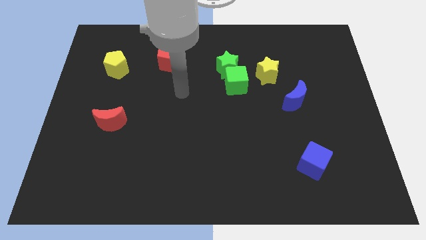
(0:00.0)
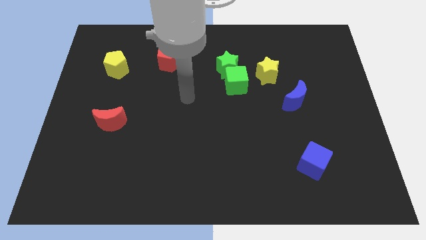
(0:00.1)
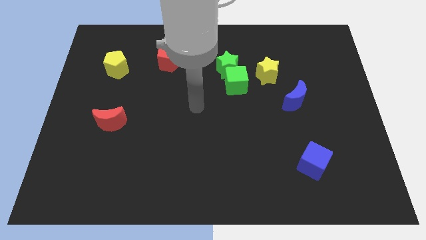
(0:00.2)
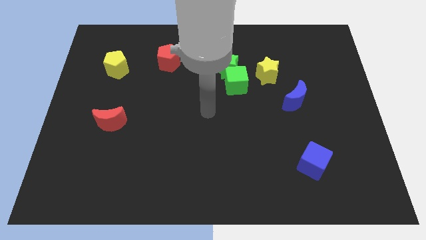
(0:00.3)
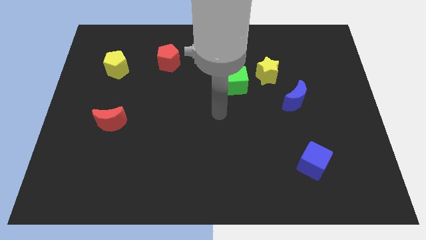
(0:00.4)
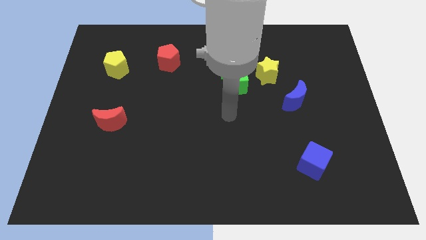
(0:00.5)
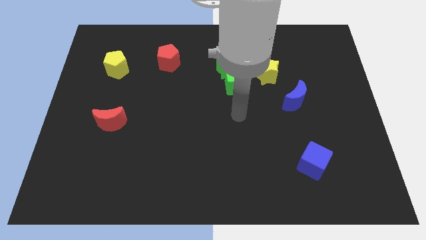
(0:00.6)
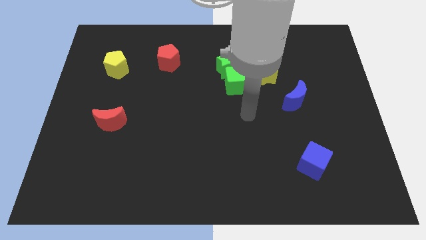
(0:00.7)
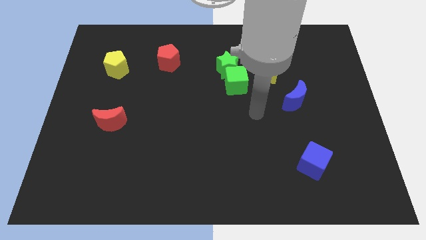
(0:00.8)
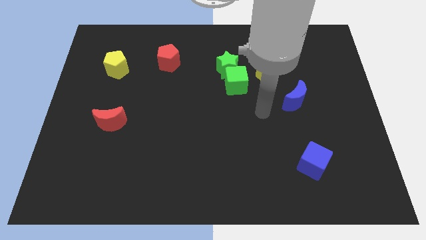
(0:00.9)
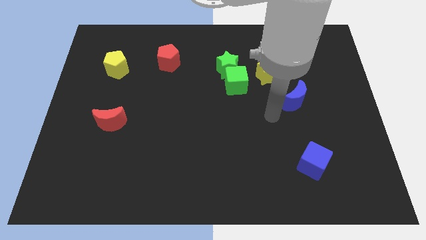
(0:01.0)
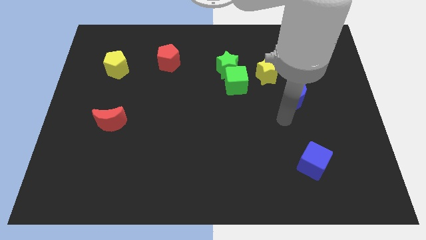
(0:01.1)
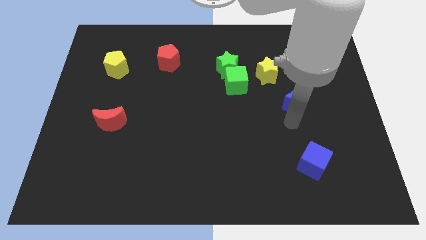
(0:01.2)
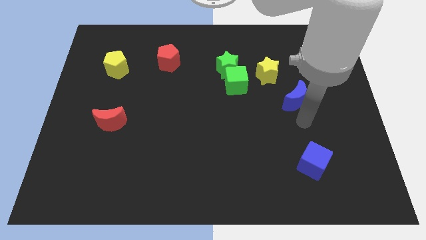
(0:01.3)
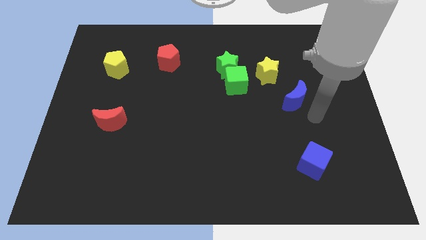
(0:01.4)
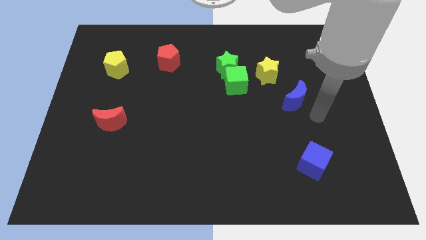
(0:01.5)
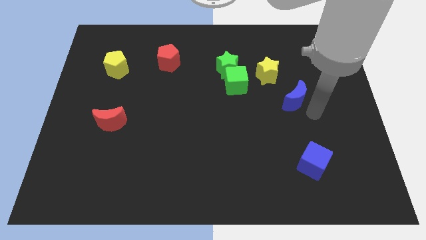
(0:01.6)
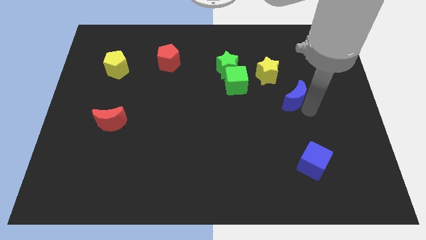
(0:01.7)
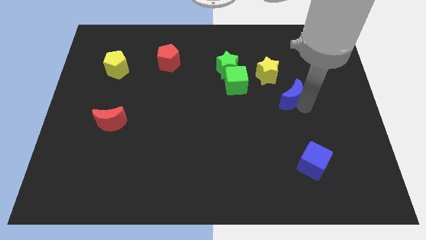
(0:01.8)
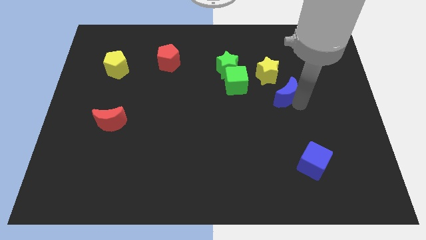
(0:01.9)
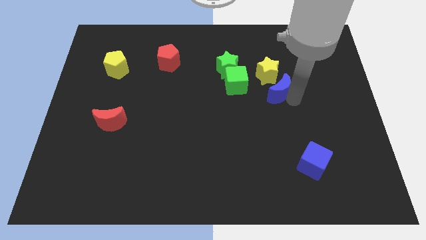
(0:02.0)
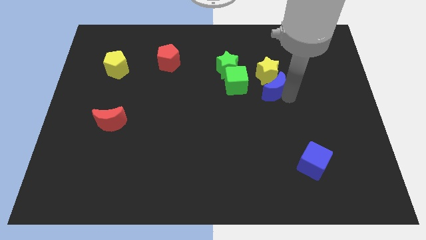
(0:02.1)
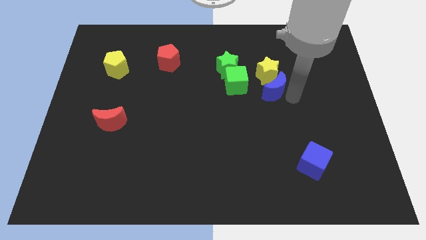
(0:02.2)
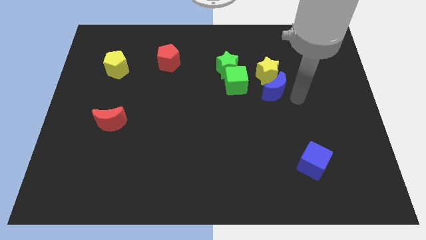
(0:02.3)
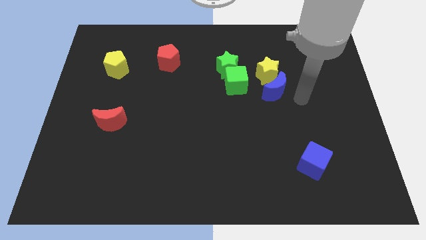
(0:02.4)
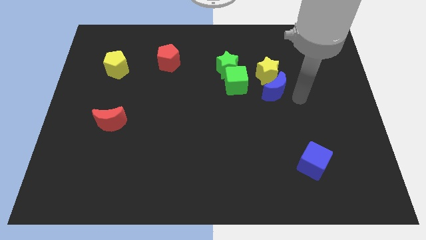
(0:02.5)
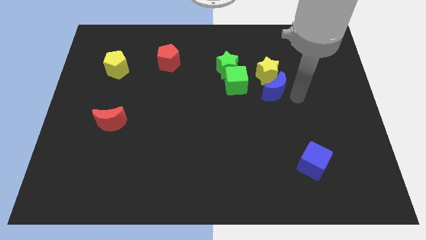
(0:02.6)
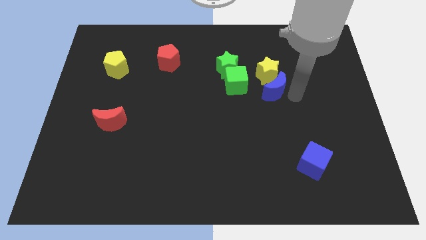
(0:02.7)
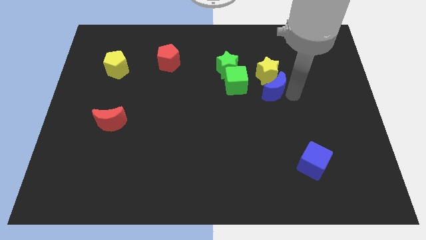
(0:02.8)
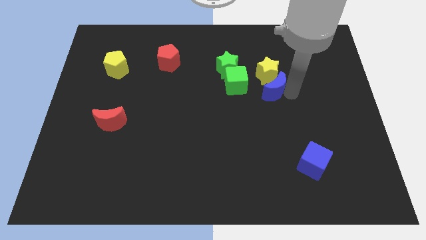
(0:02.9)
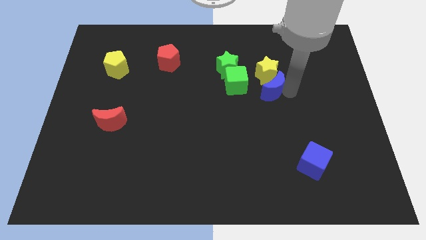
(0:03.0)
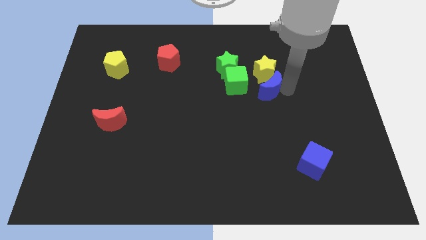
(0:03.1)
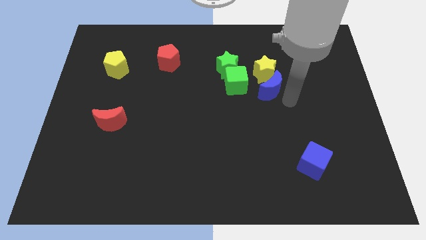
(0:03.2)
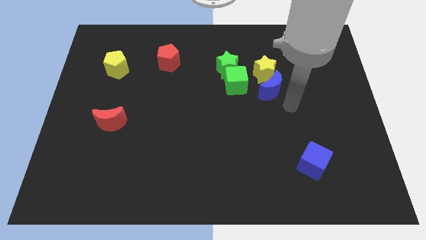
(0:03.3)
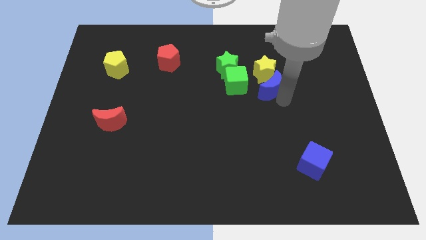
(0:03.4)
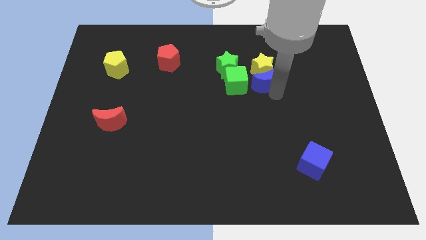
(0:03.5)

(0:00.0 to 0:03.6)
slightly move the blue moon upwards and left diagonally

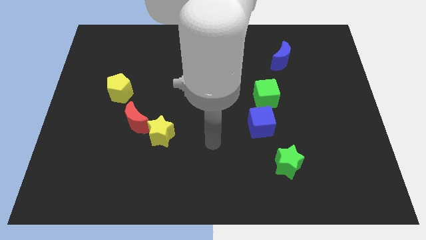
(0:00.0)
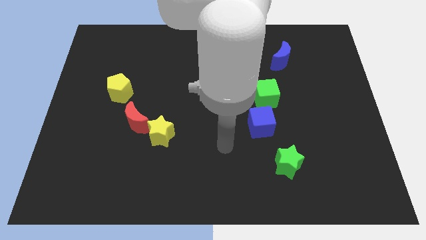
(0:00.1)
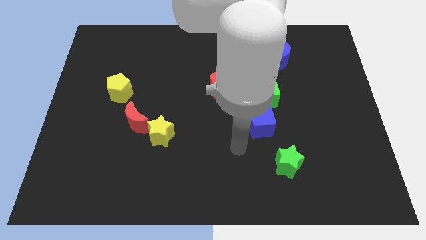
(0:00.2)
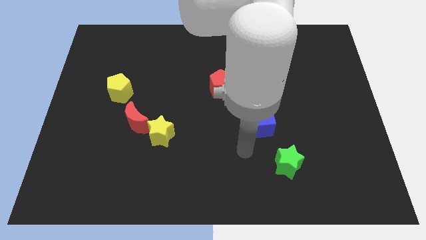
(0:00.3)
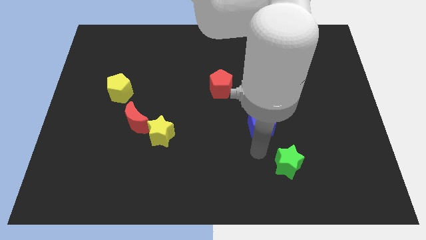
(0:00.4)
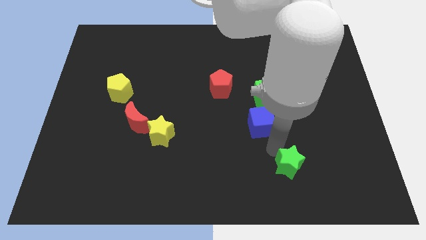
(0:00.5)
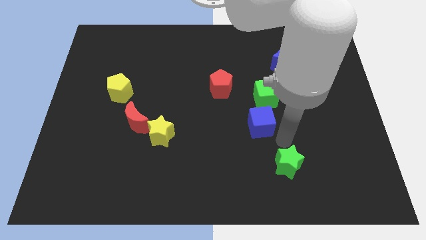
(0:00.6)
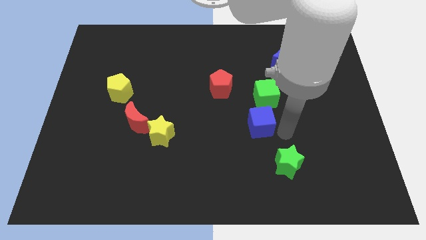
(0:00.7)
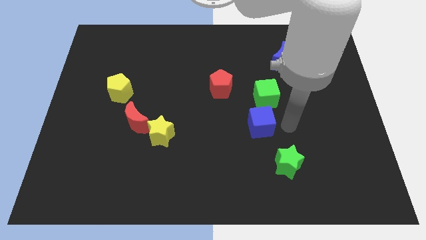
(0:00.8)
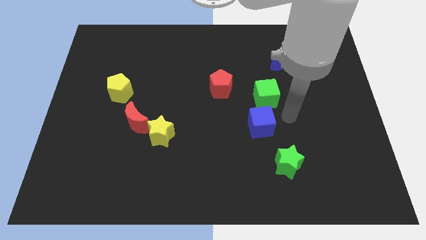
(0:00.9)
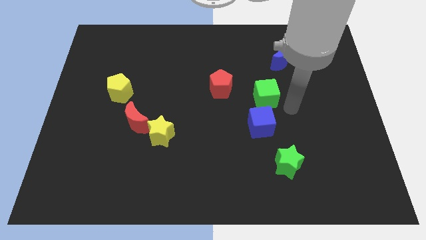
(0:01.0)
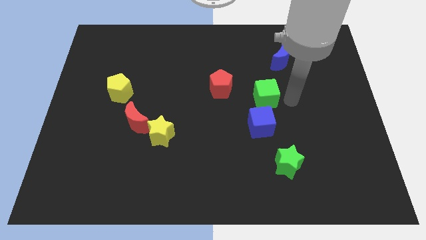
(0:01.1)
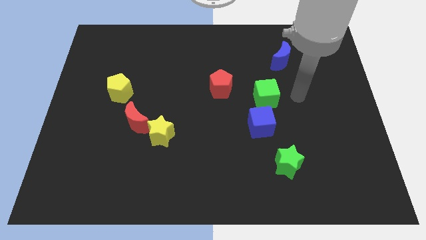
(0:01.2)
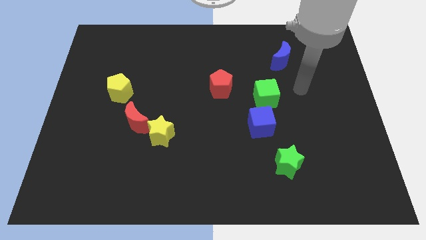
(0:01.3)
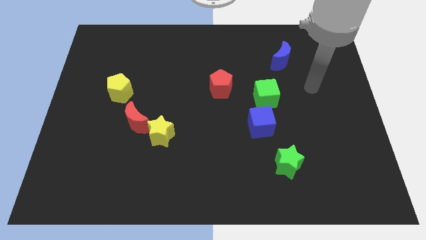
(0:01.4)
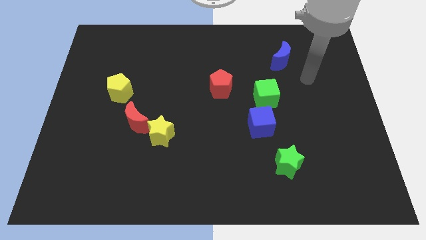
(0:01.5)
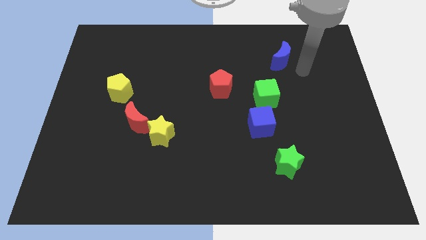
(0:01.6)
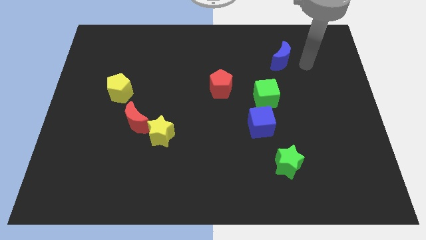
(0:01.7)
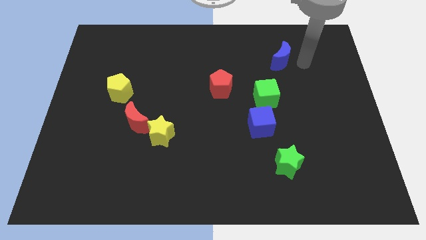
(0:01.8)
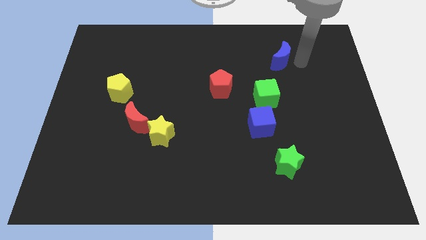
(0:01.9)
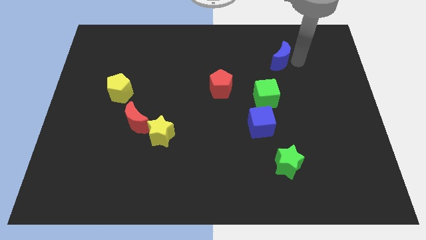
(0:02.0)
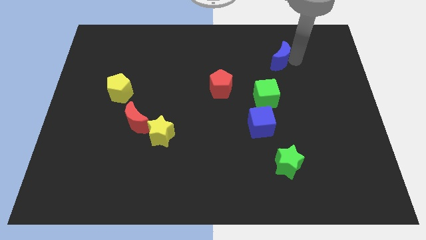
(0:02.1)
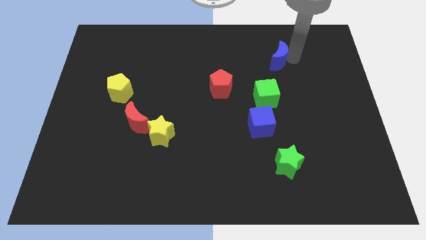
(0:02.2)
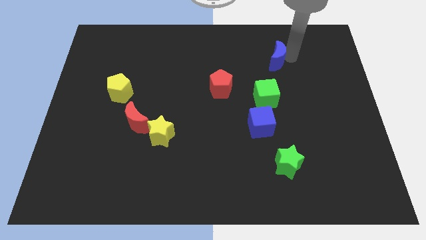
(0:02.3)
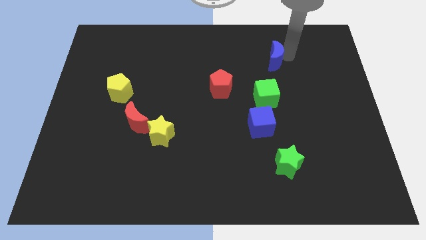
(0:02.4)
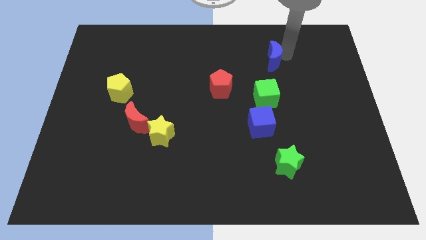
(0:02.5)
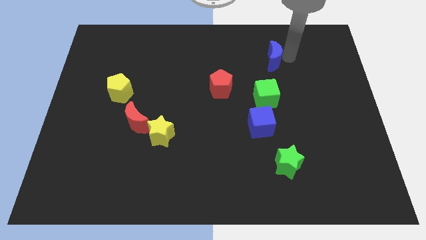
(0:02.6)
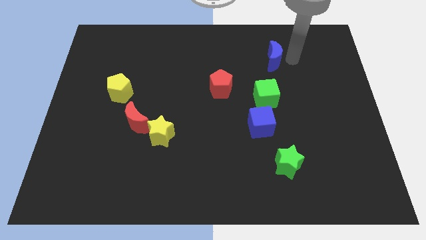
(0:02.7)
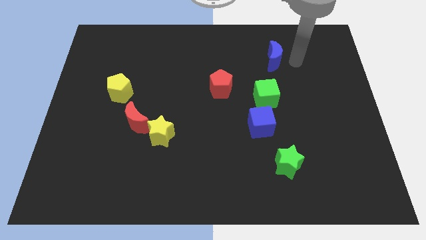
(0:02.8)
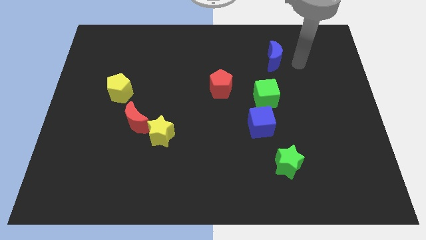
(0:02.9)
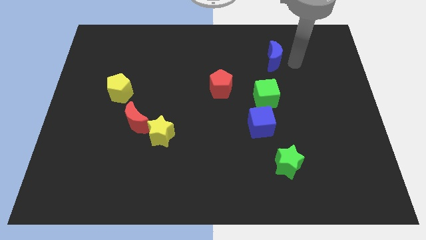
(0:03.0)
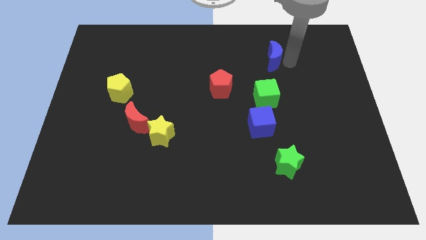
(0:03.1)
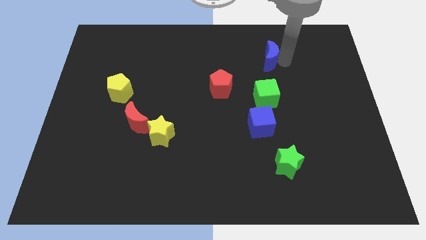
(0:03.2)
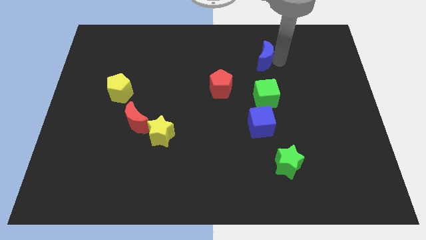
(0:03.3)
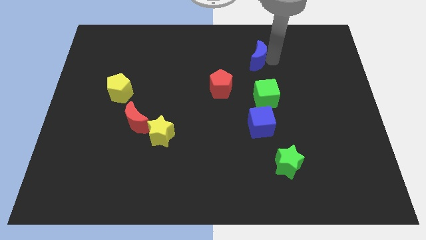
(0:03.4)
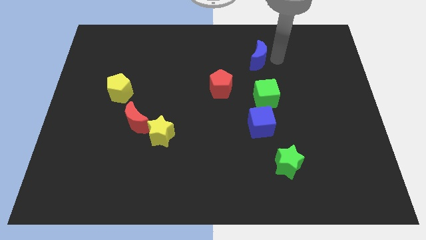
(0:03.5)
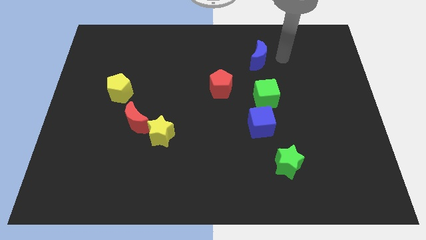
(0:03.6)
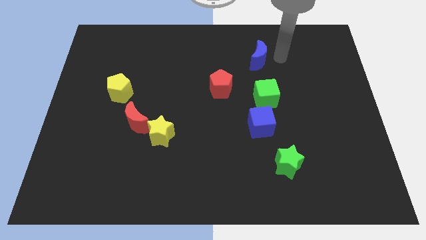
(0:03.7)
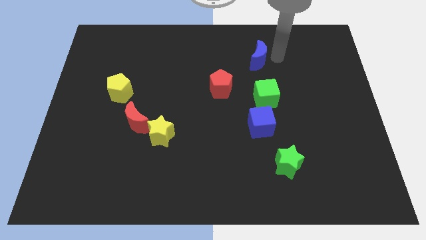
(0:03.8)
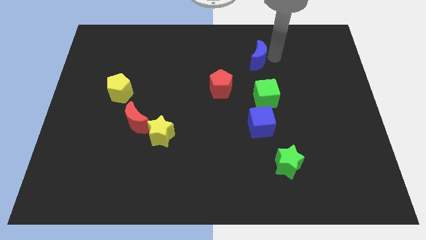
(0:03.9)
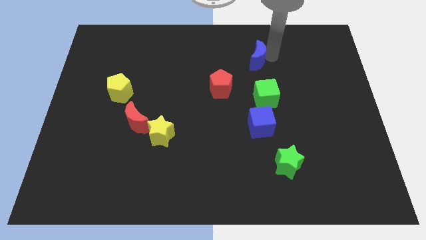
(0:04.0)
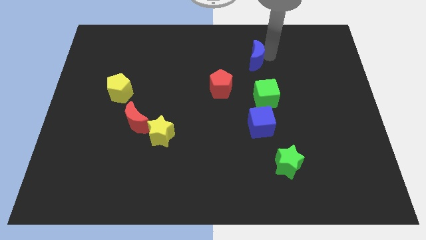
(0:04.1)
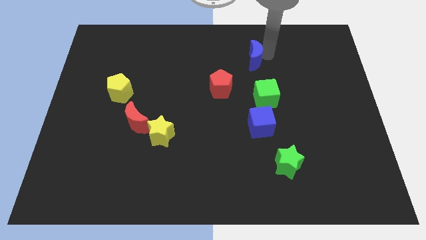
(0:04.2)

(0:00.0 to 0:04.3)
slightly slide the blue moon to the left
